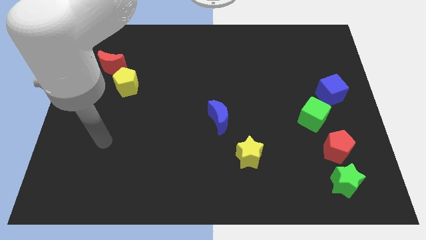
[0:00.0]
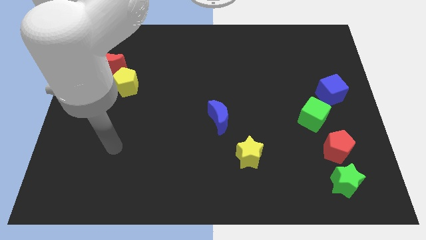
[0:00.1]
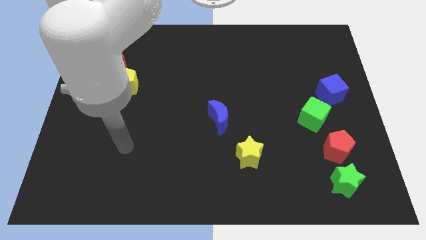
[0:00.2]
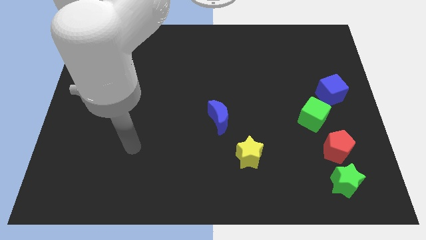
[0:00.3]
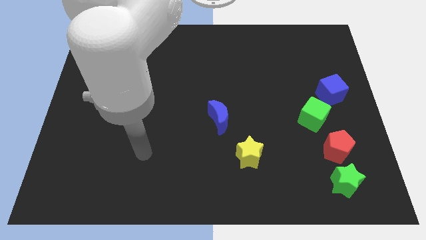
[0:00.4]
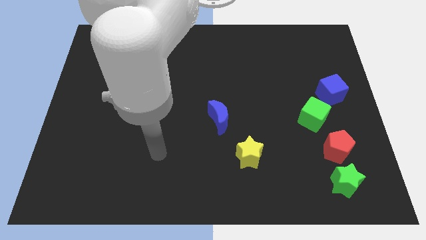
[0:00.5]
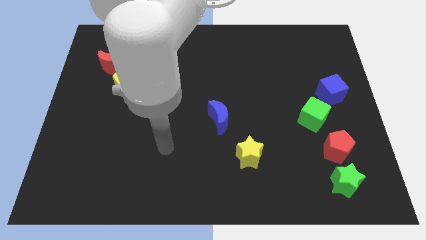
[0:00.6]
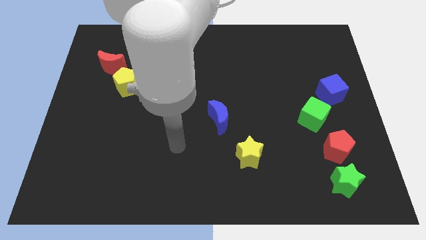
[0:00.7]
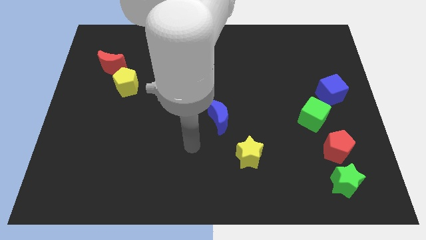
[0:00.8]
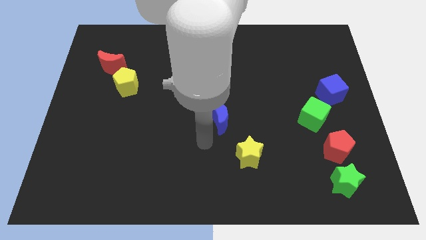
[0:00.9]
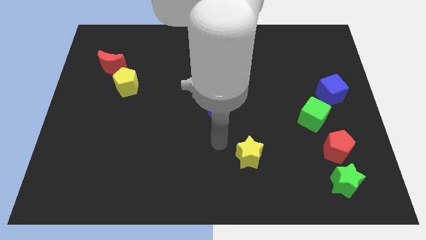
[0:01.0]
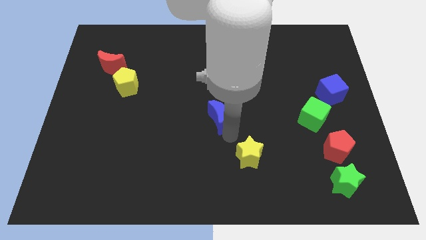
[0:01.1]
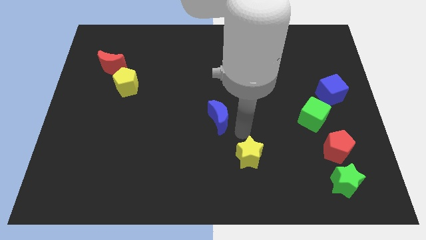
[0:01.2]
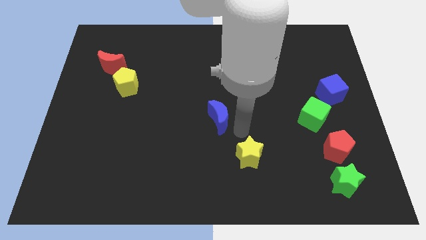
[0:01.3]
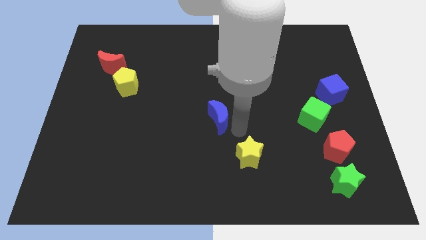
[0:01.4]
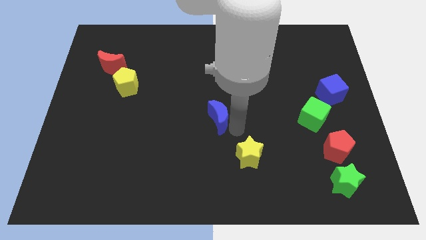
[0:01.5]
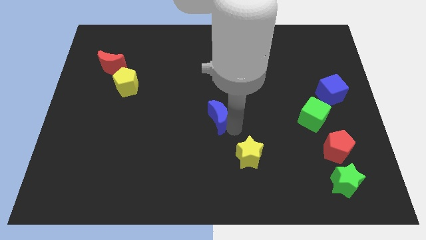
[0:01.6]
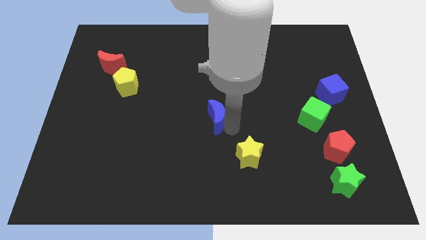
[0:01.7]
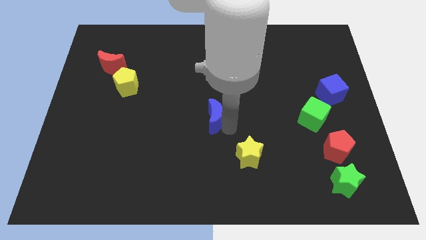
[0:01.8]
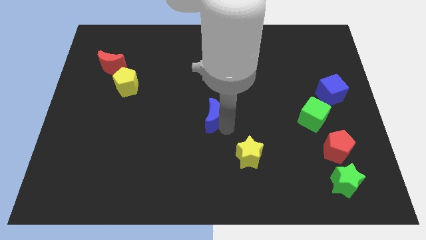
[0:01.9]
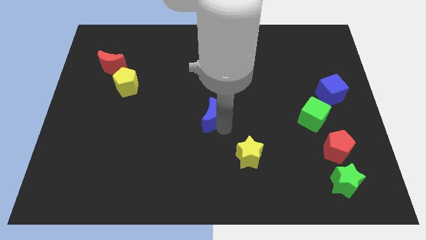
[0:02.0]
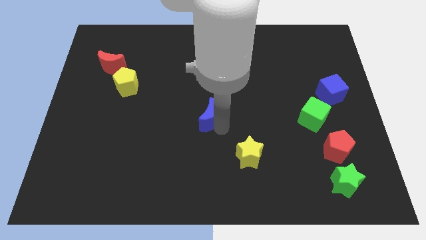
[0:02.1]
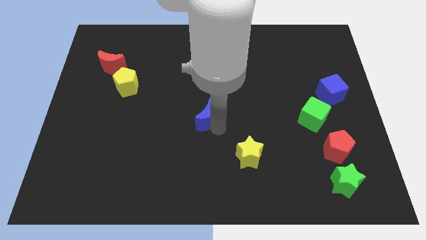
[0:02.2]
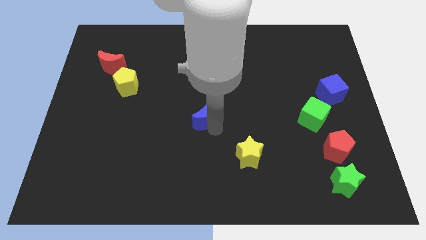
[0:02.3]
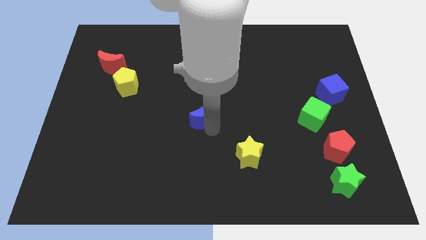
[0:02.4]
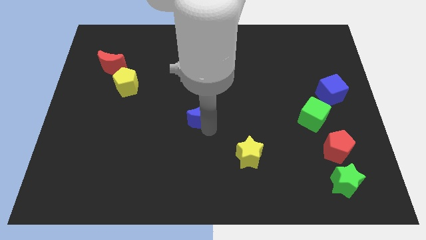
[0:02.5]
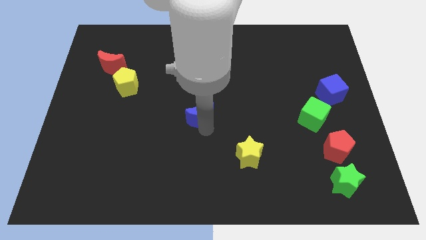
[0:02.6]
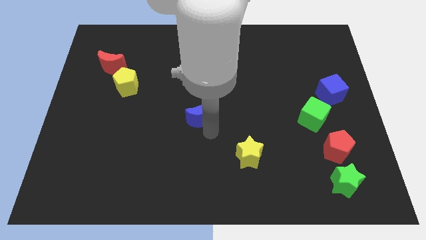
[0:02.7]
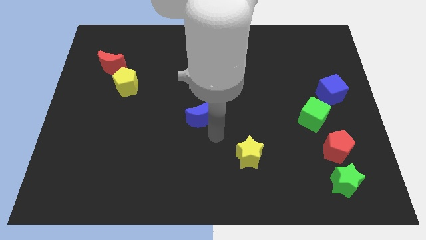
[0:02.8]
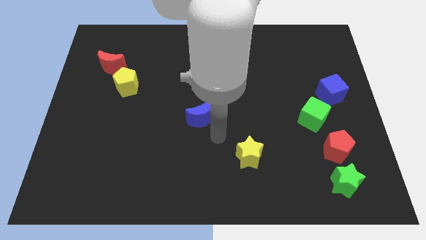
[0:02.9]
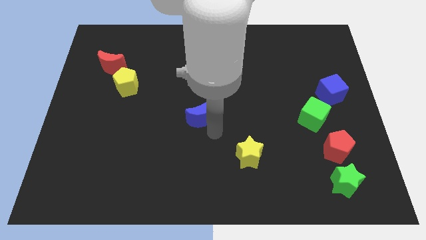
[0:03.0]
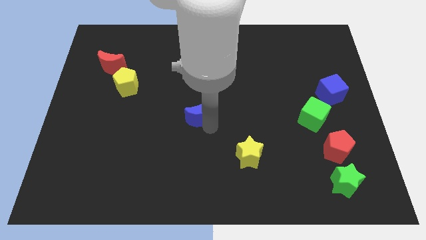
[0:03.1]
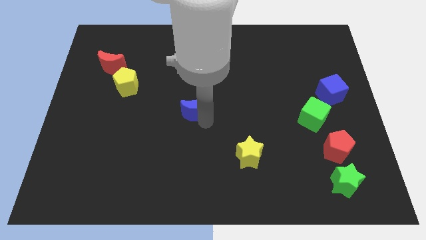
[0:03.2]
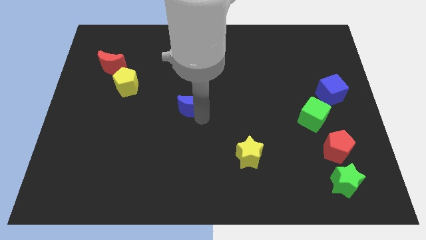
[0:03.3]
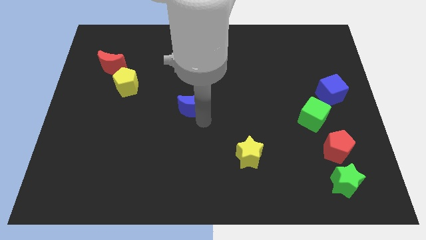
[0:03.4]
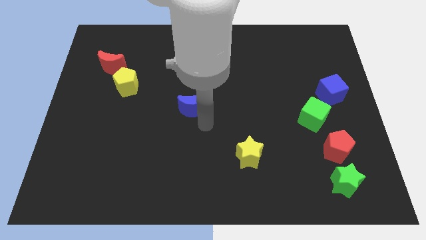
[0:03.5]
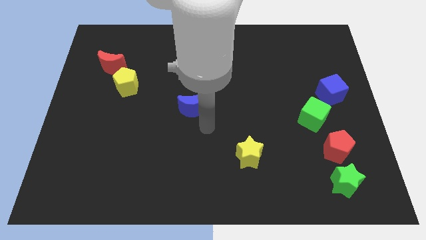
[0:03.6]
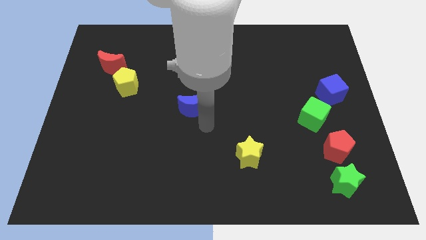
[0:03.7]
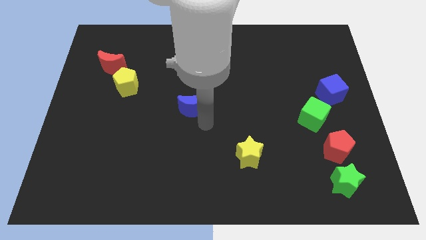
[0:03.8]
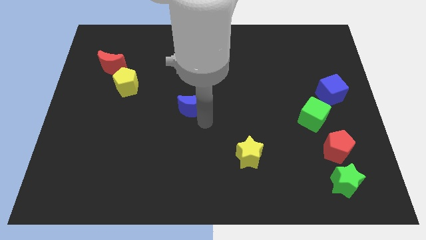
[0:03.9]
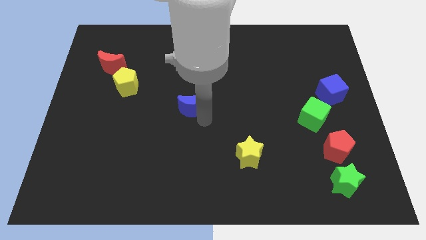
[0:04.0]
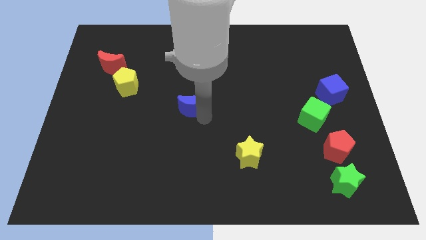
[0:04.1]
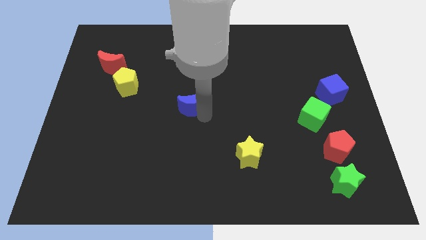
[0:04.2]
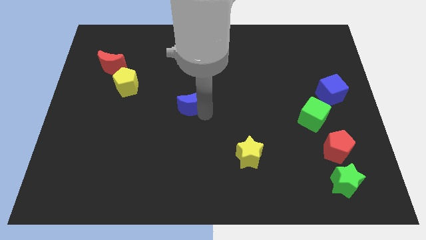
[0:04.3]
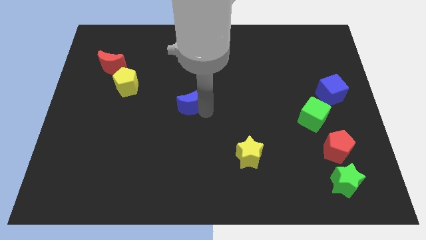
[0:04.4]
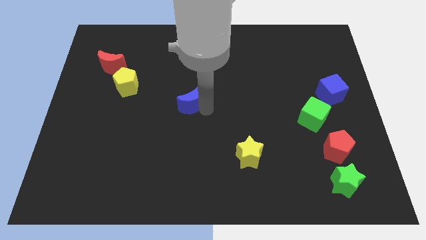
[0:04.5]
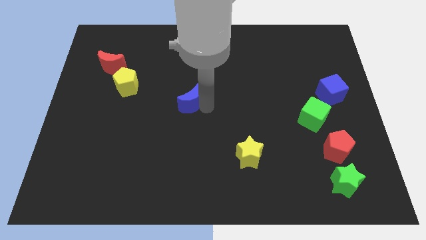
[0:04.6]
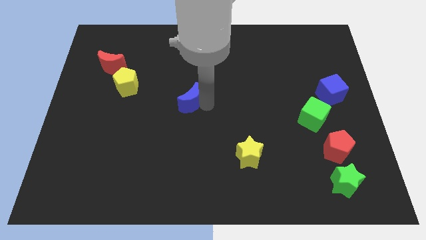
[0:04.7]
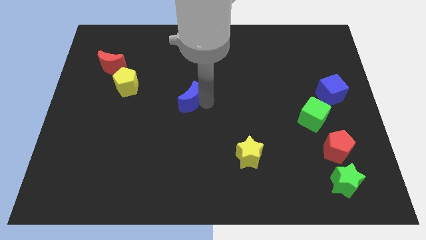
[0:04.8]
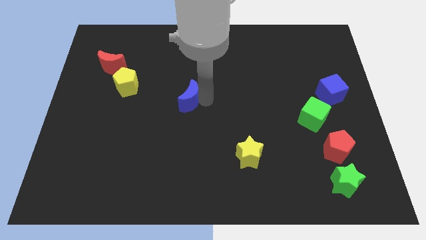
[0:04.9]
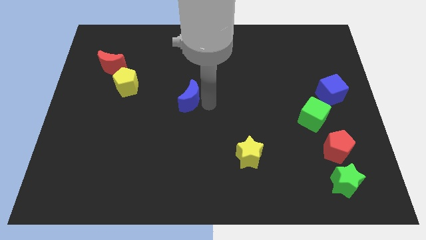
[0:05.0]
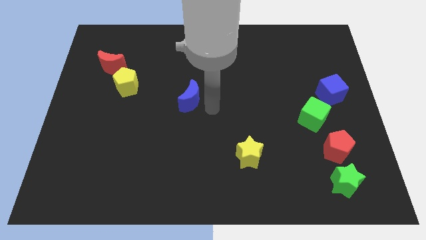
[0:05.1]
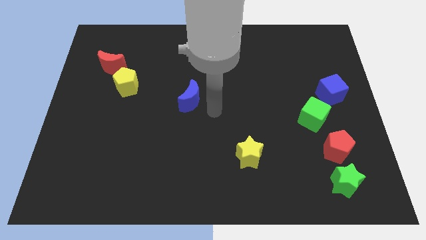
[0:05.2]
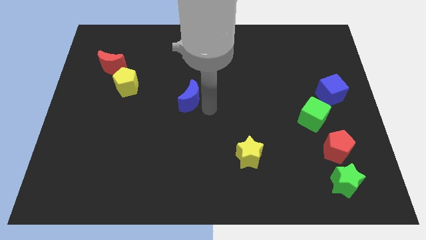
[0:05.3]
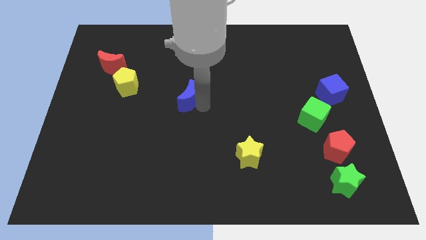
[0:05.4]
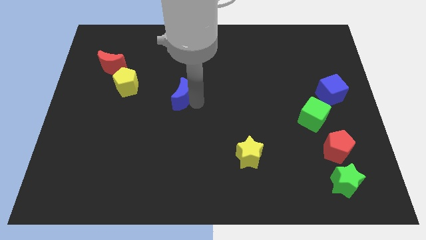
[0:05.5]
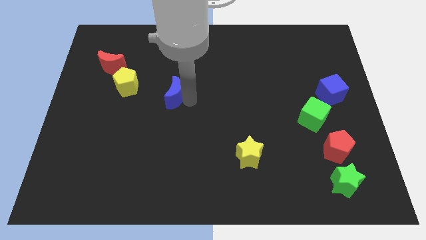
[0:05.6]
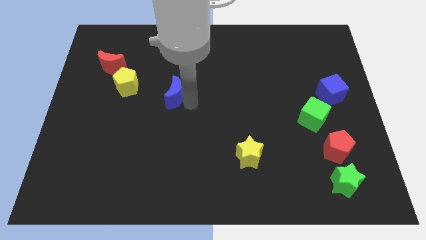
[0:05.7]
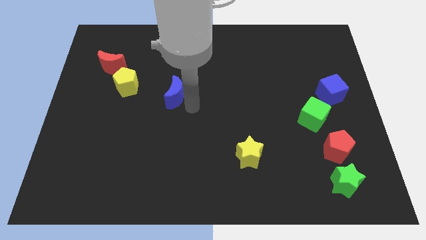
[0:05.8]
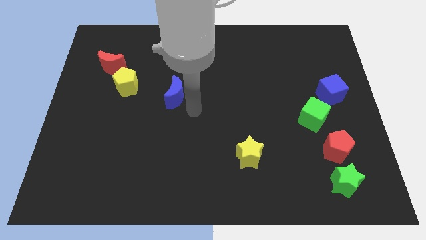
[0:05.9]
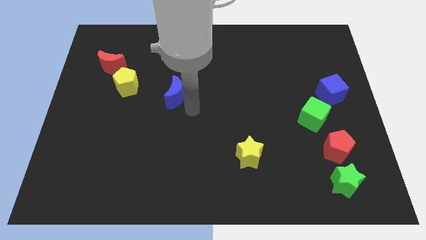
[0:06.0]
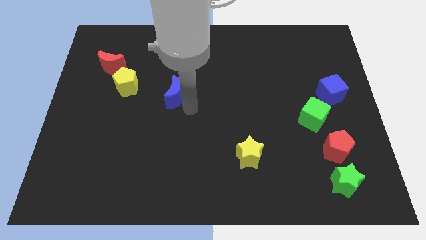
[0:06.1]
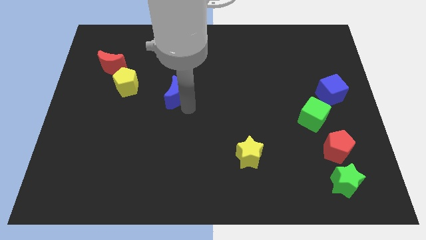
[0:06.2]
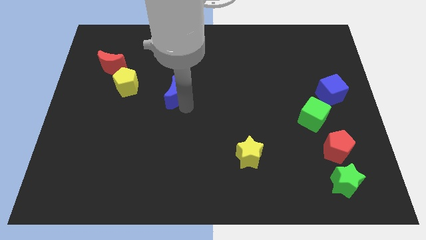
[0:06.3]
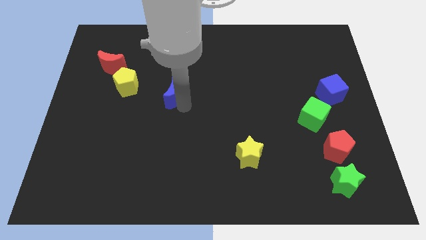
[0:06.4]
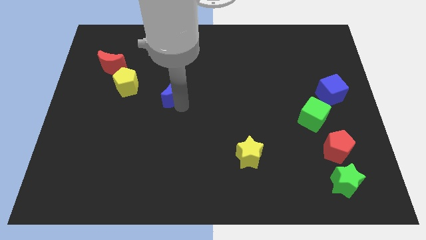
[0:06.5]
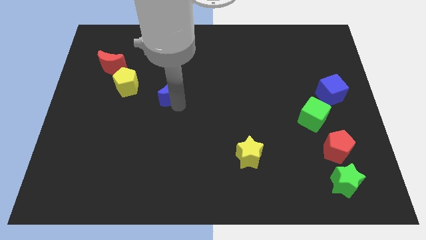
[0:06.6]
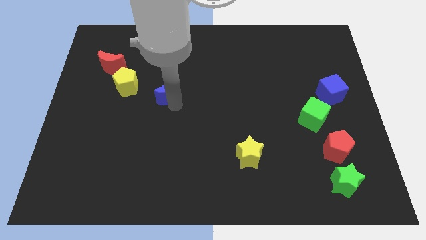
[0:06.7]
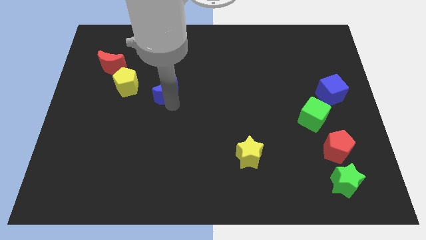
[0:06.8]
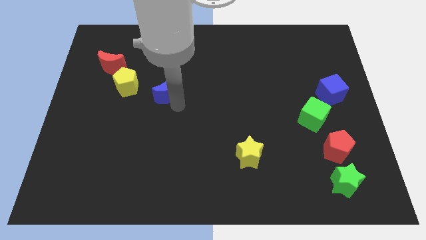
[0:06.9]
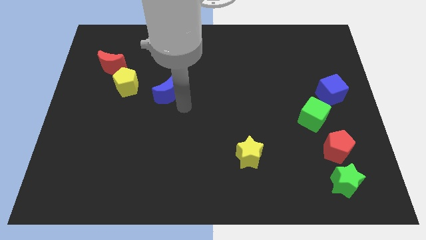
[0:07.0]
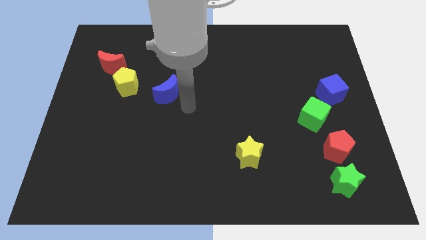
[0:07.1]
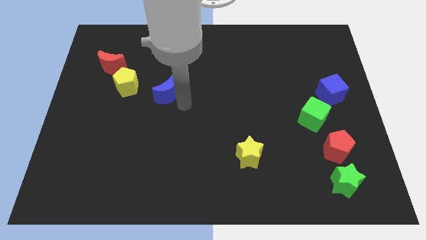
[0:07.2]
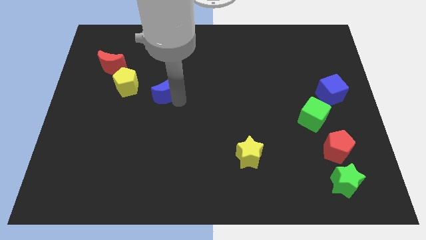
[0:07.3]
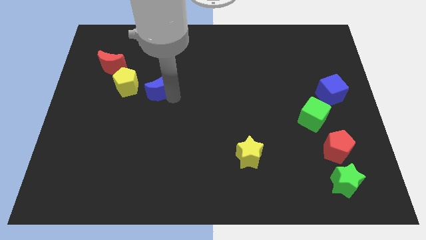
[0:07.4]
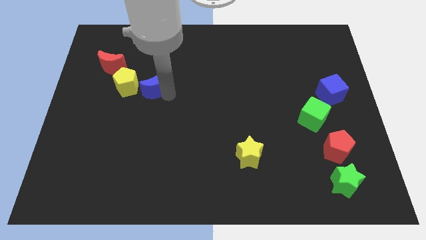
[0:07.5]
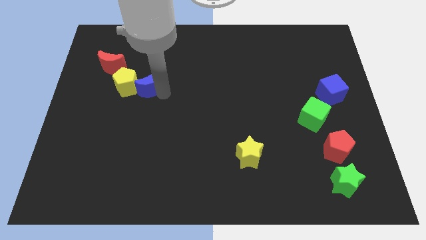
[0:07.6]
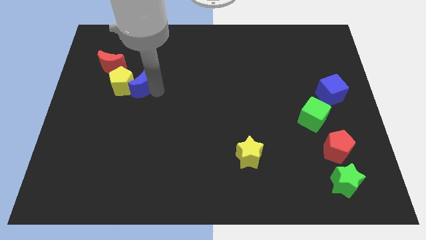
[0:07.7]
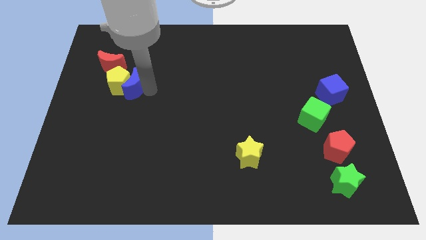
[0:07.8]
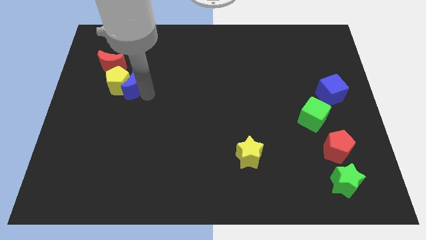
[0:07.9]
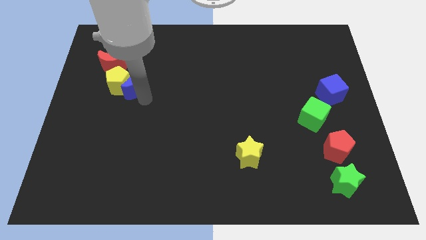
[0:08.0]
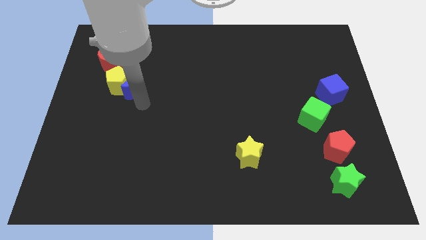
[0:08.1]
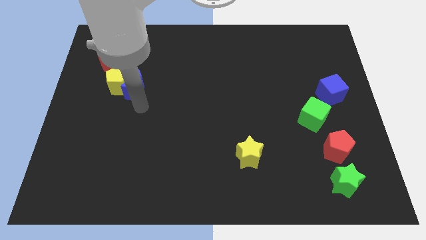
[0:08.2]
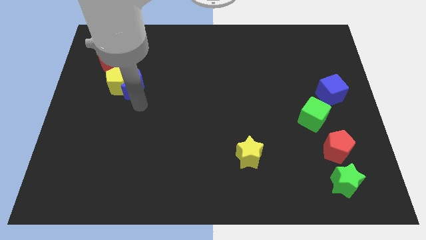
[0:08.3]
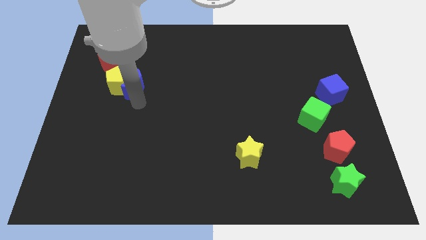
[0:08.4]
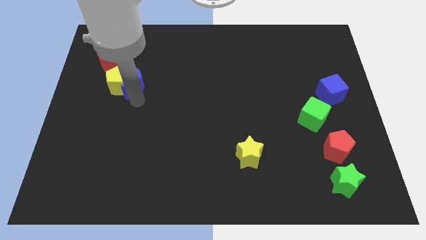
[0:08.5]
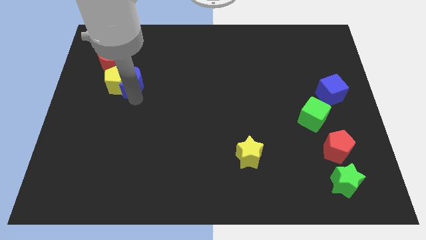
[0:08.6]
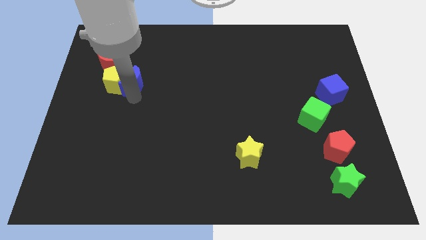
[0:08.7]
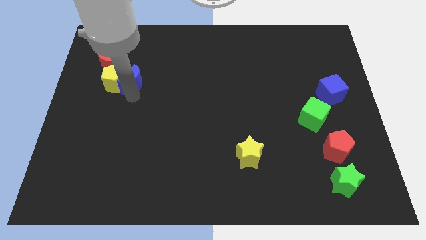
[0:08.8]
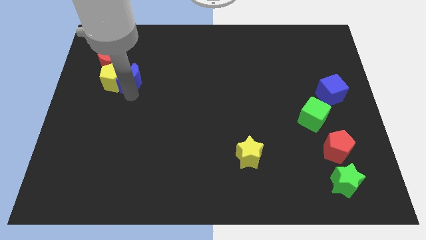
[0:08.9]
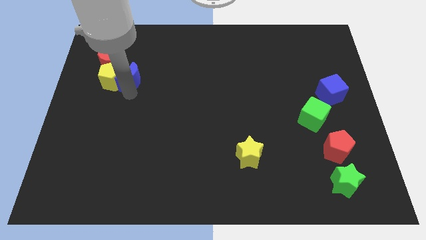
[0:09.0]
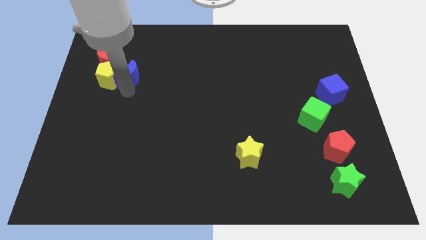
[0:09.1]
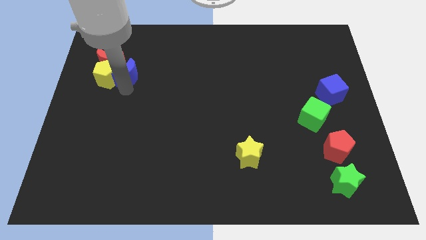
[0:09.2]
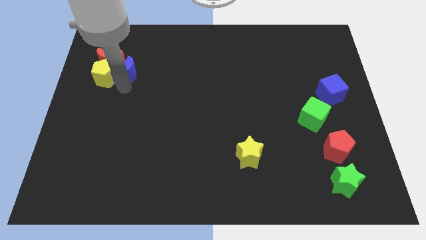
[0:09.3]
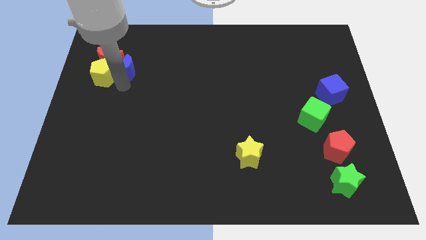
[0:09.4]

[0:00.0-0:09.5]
move the blue moon next to the red moon
